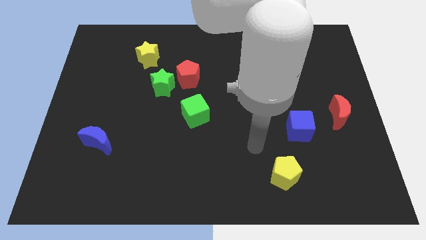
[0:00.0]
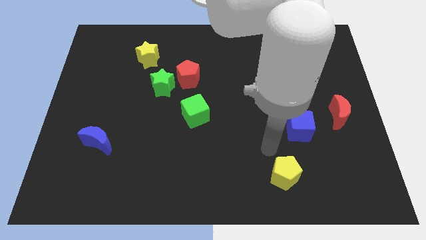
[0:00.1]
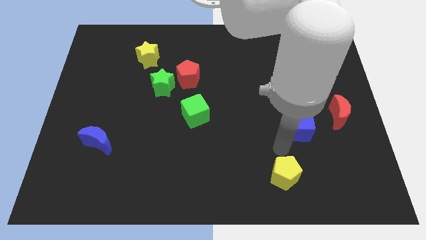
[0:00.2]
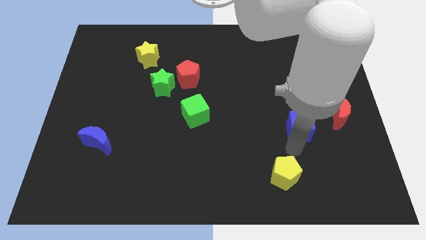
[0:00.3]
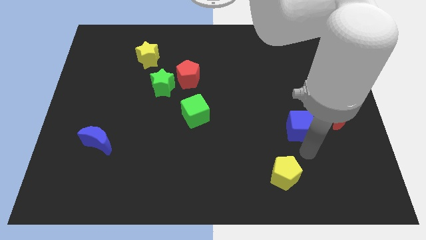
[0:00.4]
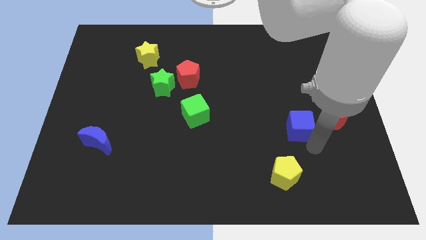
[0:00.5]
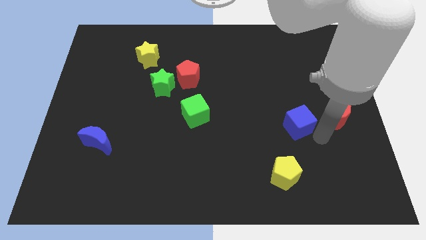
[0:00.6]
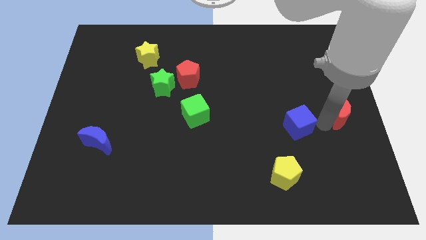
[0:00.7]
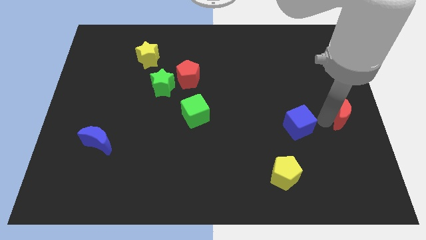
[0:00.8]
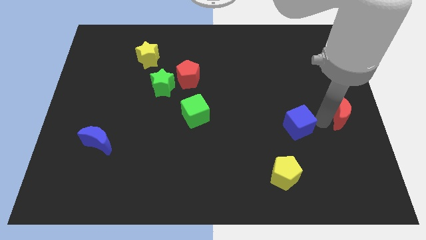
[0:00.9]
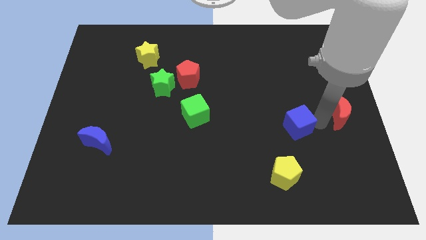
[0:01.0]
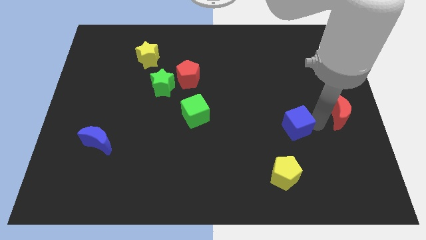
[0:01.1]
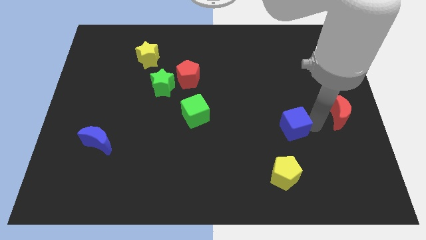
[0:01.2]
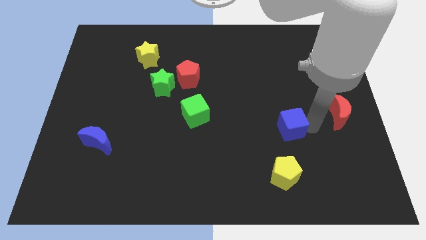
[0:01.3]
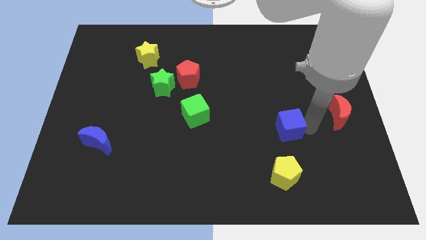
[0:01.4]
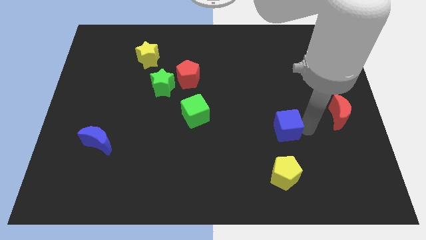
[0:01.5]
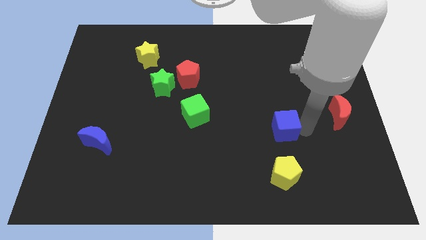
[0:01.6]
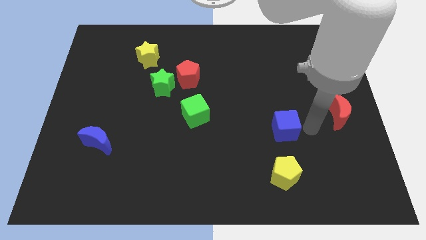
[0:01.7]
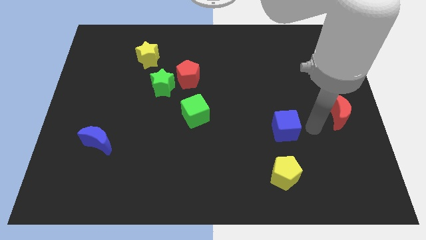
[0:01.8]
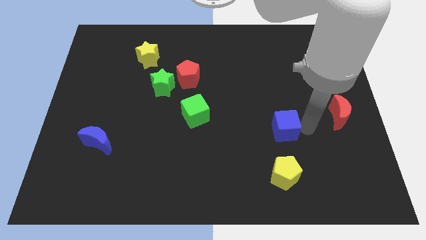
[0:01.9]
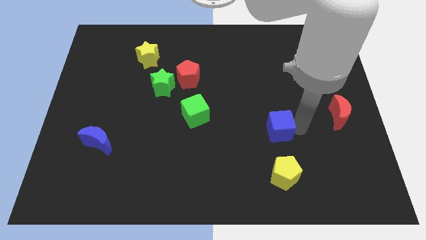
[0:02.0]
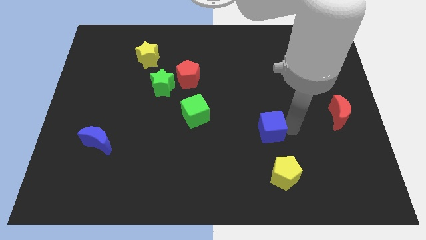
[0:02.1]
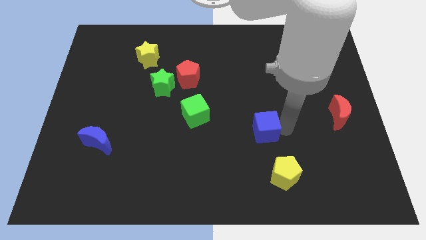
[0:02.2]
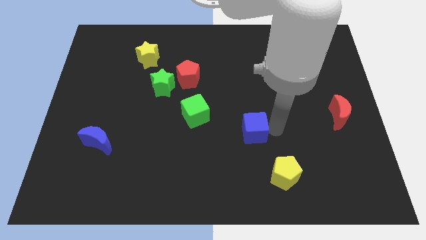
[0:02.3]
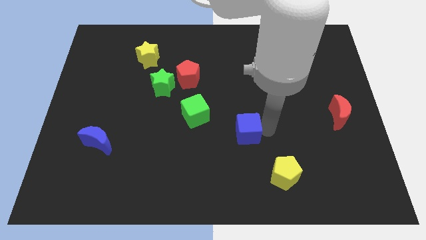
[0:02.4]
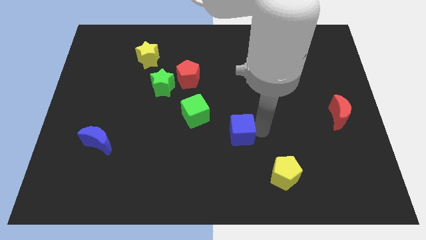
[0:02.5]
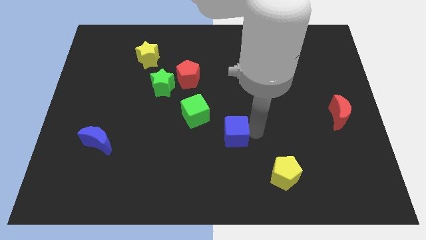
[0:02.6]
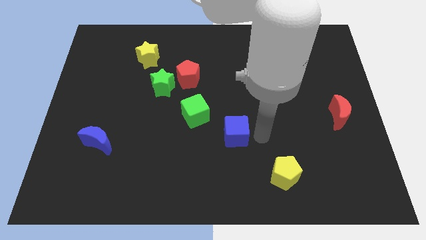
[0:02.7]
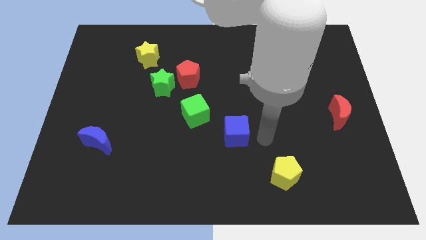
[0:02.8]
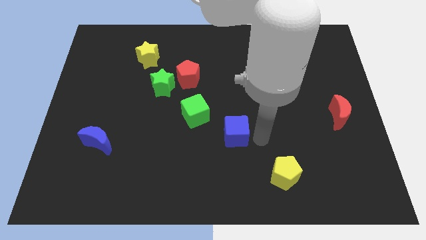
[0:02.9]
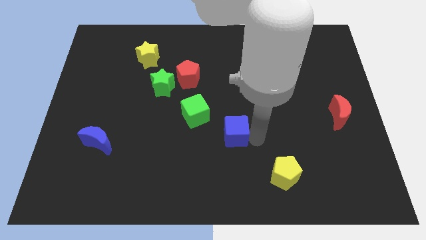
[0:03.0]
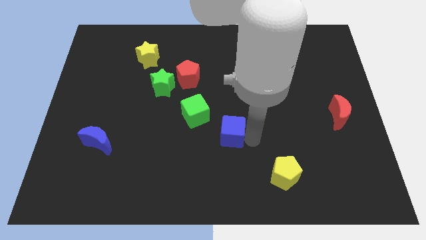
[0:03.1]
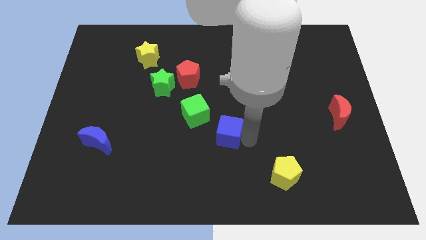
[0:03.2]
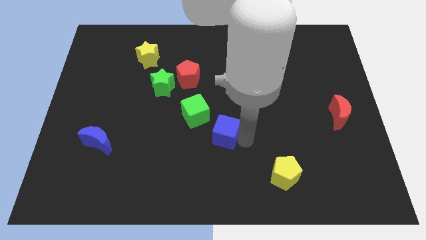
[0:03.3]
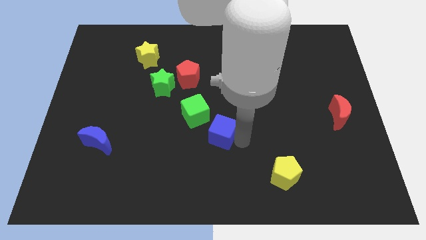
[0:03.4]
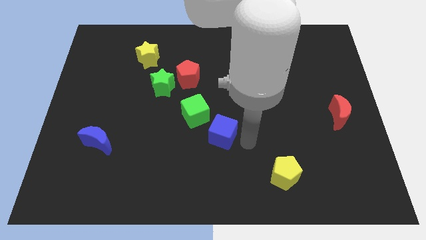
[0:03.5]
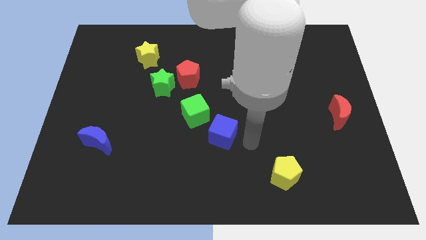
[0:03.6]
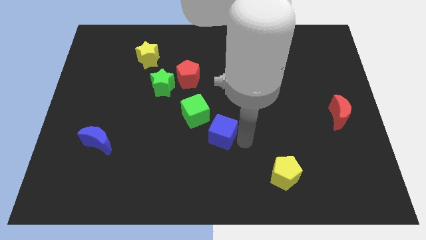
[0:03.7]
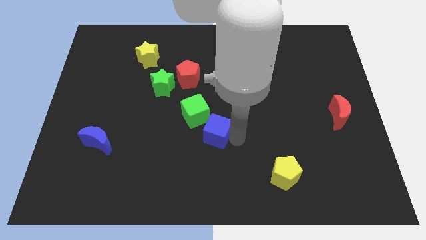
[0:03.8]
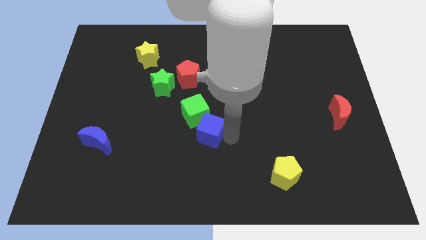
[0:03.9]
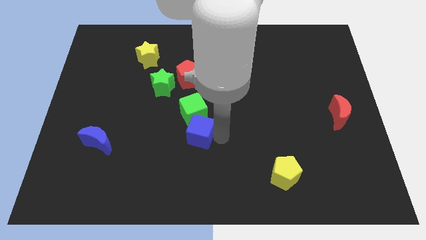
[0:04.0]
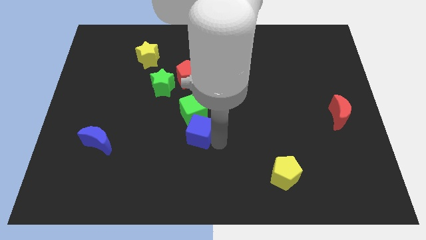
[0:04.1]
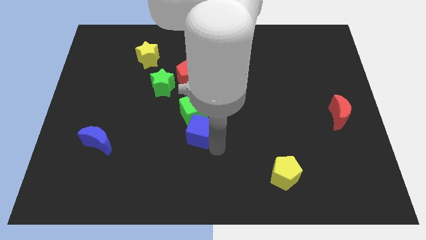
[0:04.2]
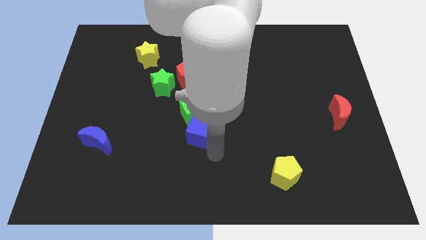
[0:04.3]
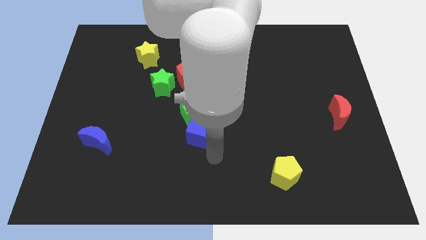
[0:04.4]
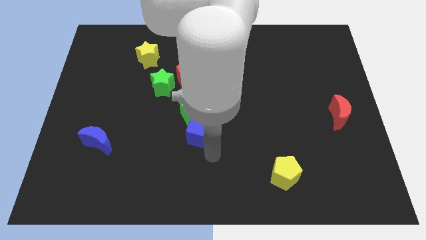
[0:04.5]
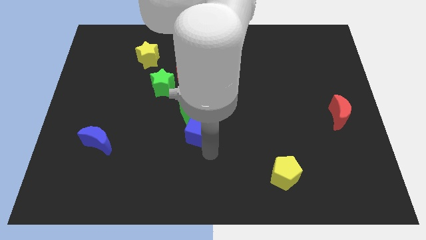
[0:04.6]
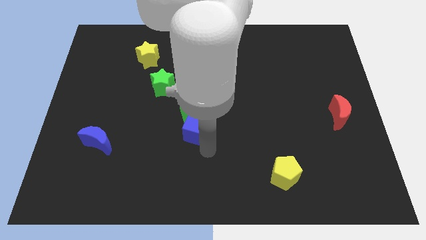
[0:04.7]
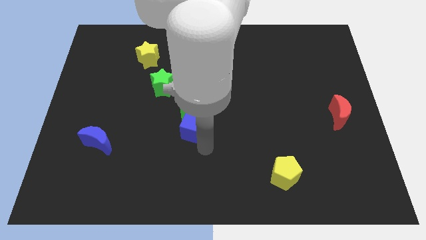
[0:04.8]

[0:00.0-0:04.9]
put the blue cube to the bottom side of the red pentagon

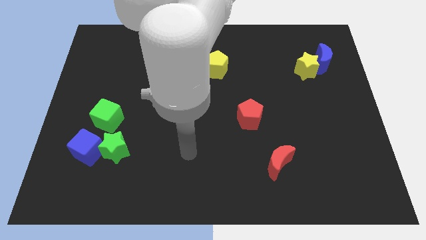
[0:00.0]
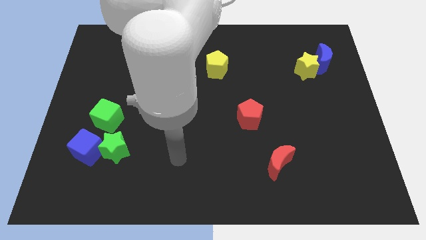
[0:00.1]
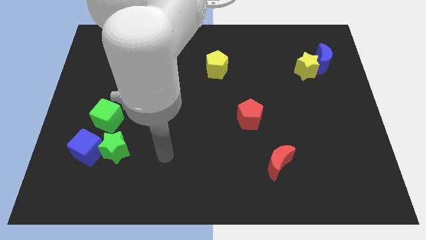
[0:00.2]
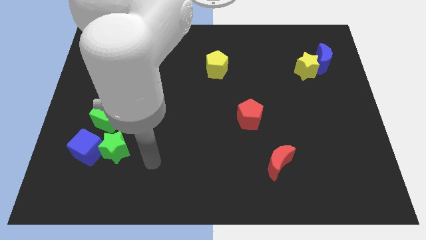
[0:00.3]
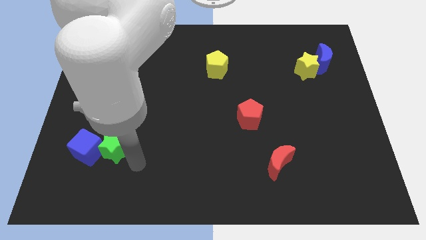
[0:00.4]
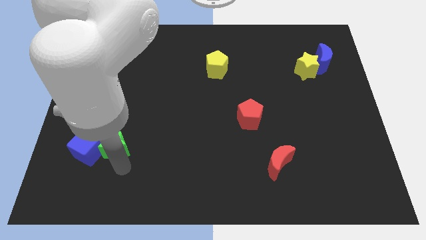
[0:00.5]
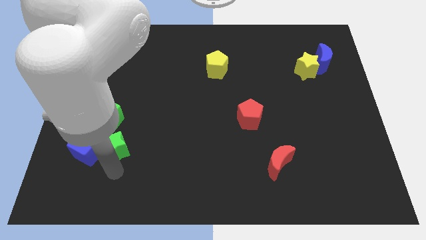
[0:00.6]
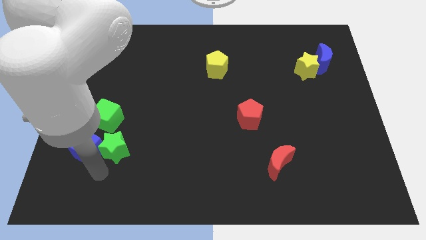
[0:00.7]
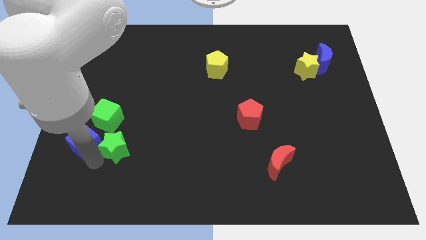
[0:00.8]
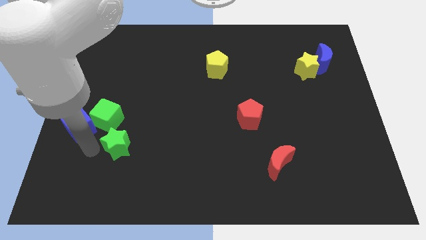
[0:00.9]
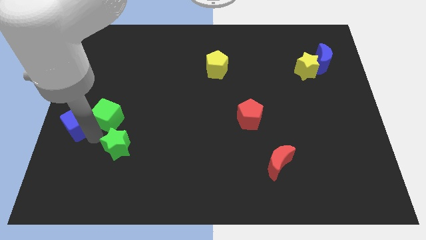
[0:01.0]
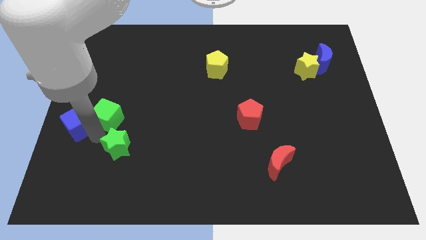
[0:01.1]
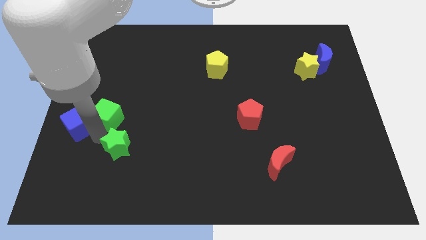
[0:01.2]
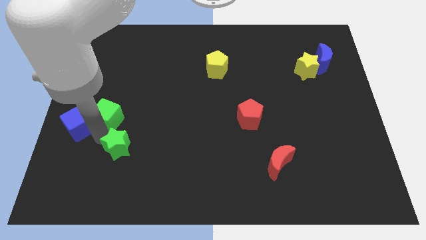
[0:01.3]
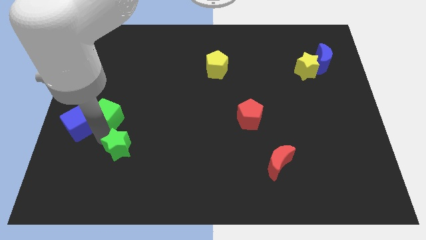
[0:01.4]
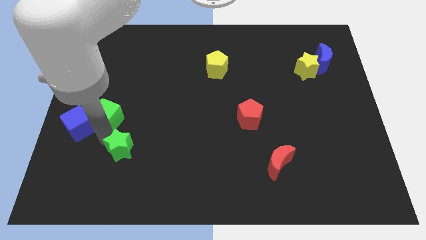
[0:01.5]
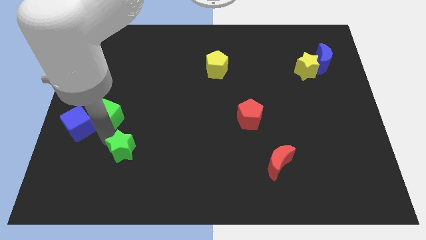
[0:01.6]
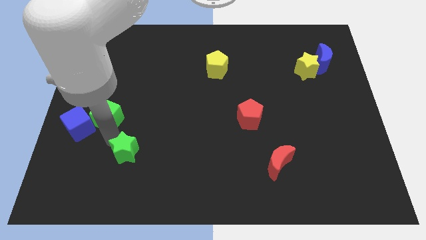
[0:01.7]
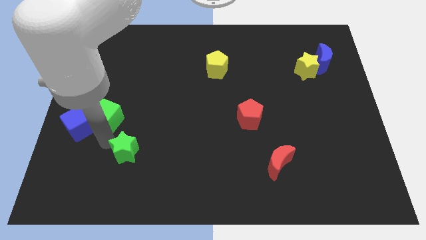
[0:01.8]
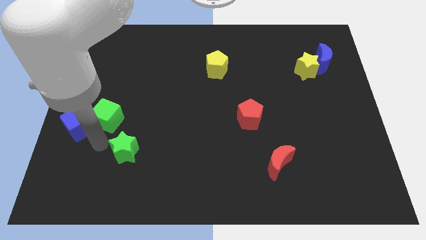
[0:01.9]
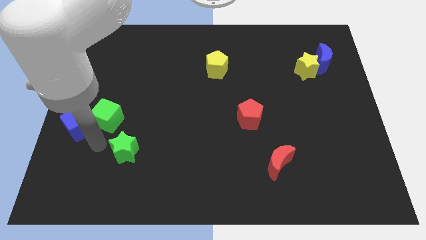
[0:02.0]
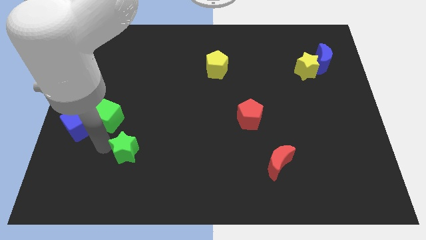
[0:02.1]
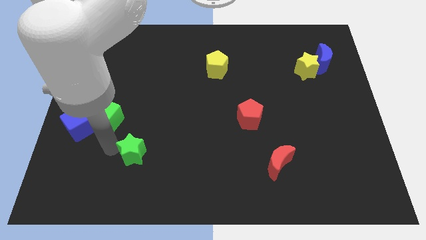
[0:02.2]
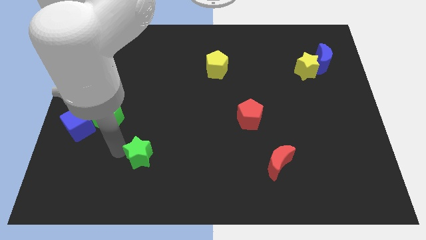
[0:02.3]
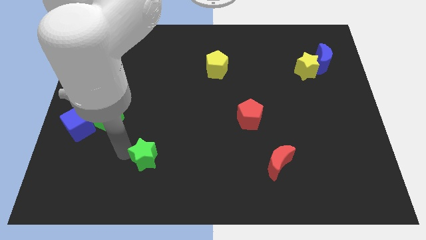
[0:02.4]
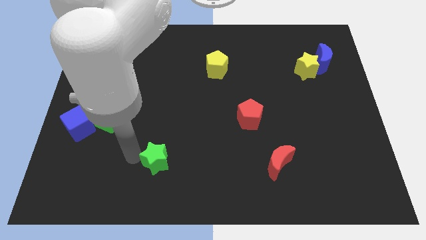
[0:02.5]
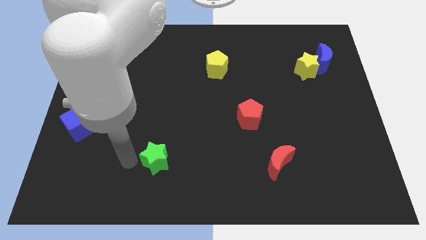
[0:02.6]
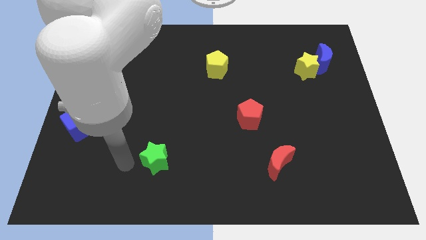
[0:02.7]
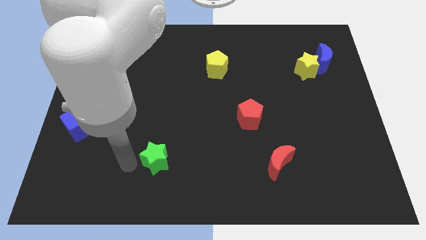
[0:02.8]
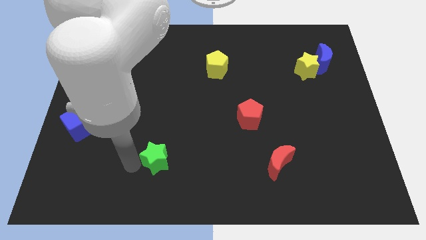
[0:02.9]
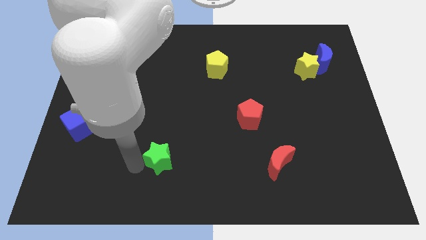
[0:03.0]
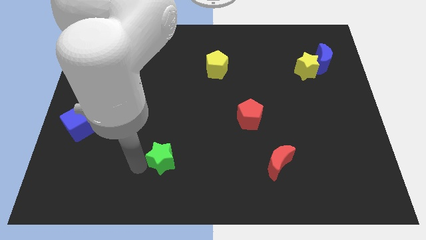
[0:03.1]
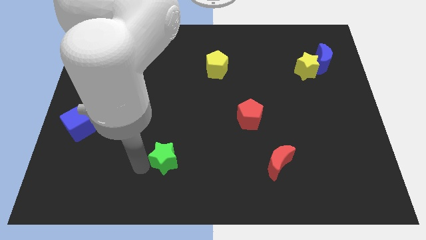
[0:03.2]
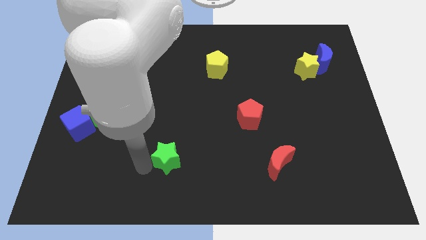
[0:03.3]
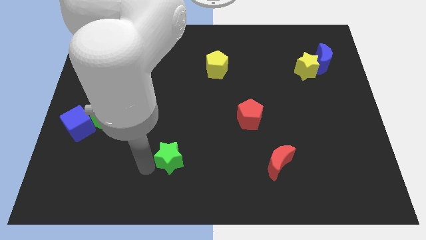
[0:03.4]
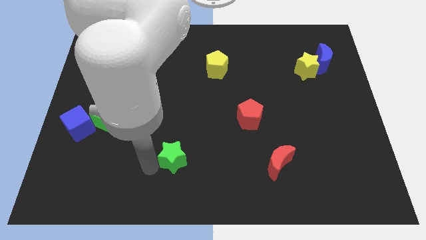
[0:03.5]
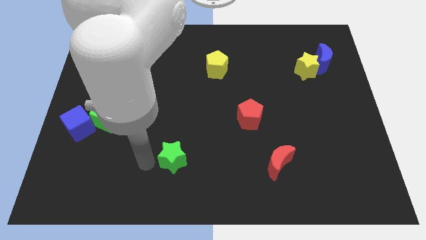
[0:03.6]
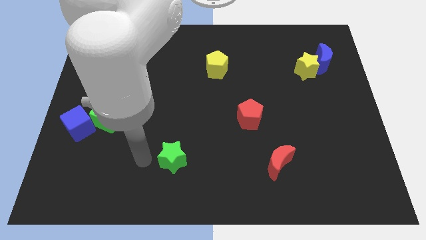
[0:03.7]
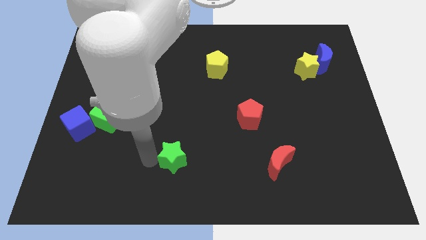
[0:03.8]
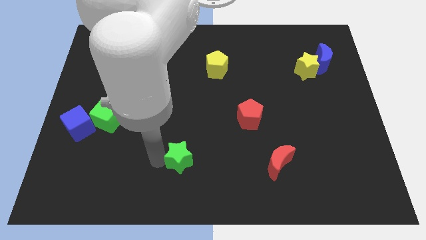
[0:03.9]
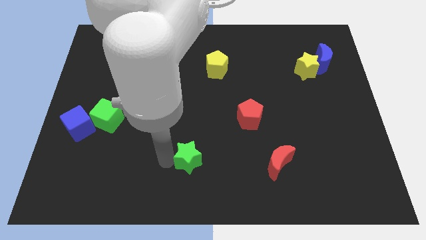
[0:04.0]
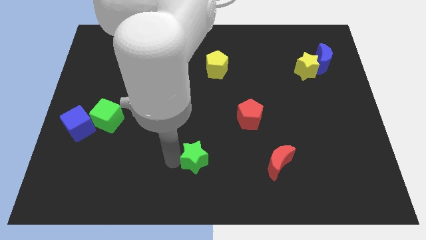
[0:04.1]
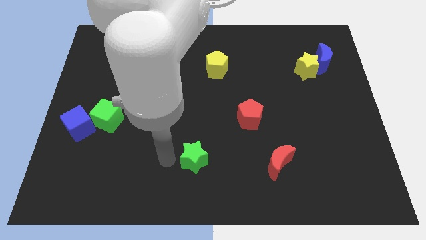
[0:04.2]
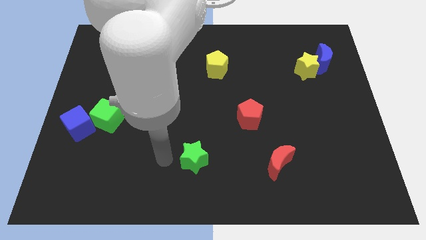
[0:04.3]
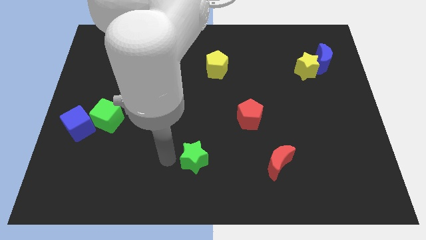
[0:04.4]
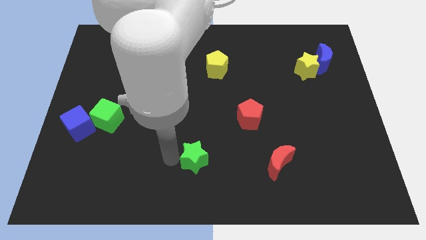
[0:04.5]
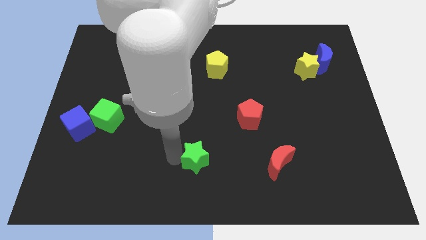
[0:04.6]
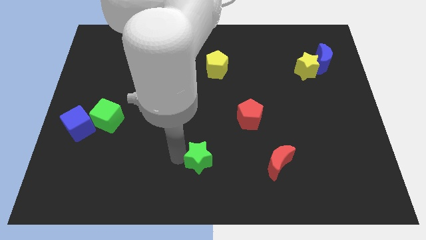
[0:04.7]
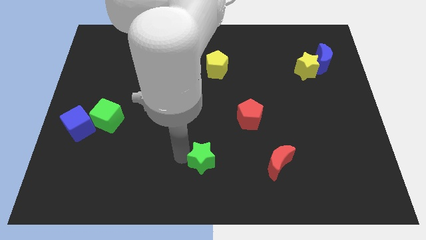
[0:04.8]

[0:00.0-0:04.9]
put the green star left of the red moon
